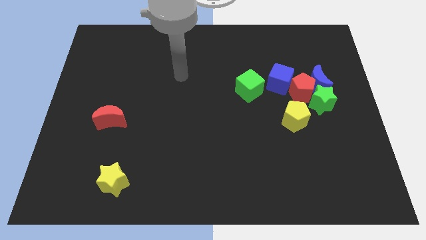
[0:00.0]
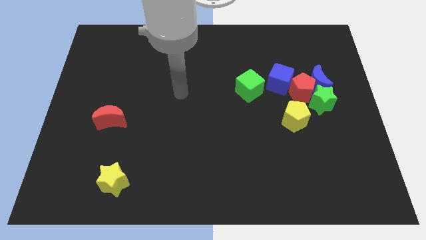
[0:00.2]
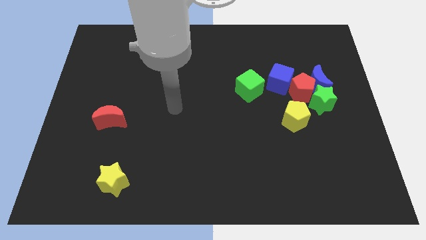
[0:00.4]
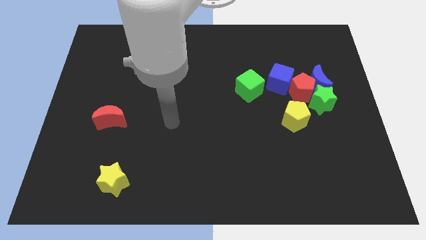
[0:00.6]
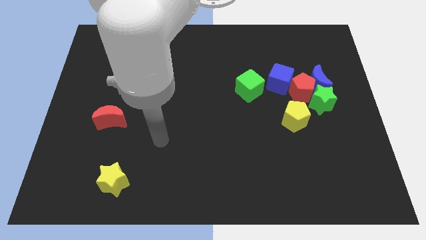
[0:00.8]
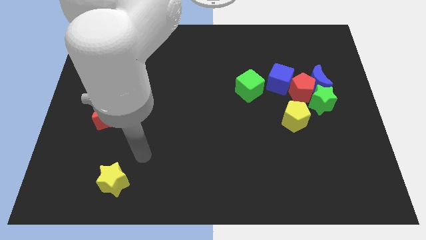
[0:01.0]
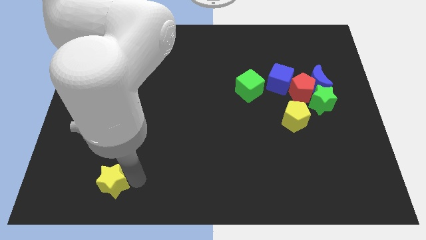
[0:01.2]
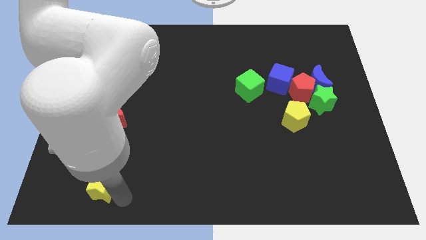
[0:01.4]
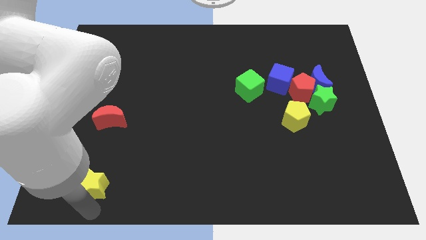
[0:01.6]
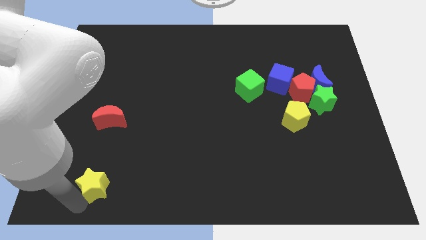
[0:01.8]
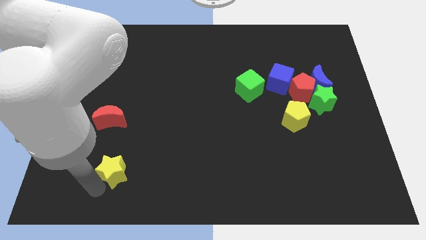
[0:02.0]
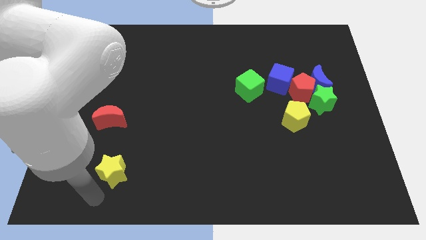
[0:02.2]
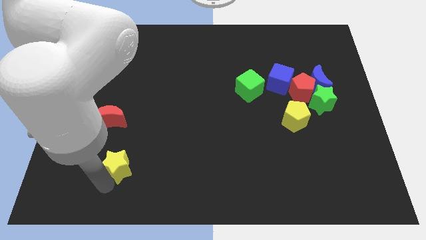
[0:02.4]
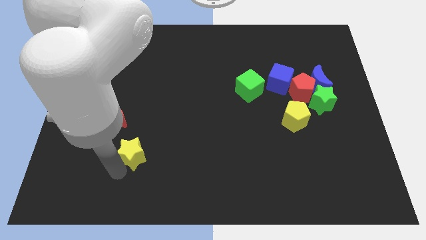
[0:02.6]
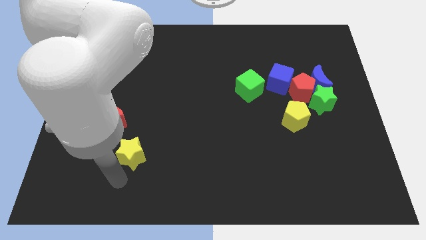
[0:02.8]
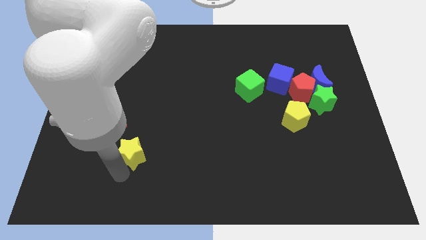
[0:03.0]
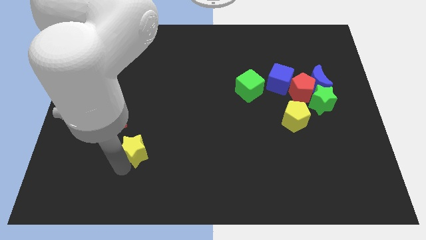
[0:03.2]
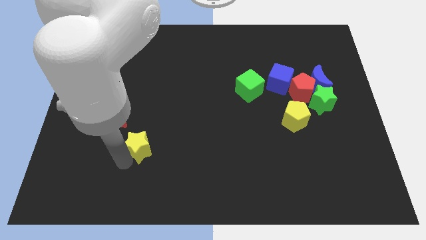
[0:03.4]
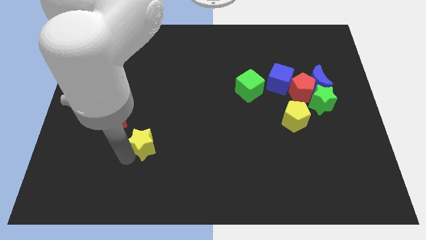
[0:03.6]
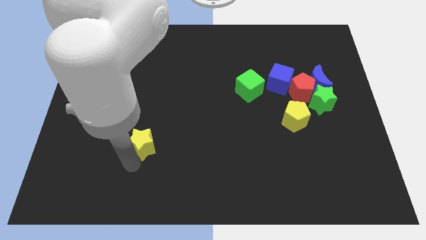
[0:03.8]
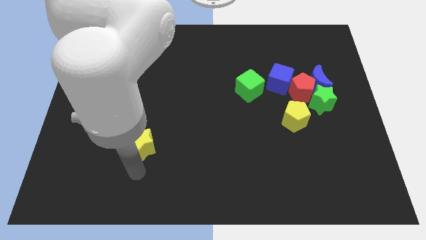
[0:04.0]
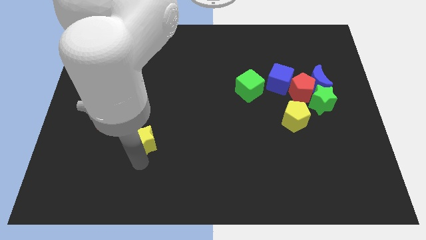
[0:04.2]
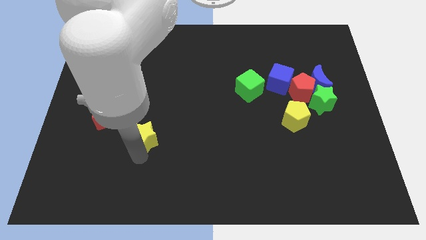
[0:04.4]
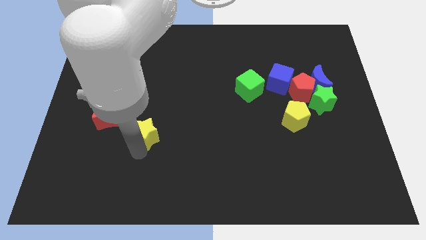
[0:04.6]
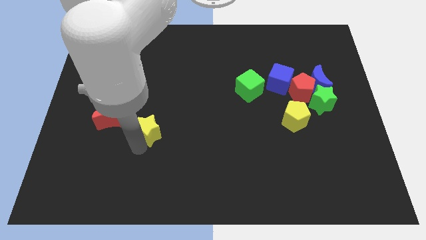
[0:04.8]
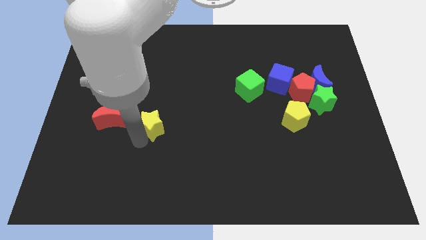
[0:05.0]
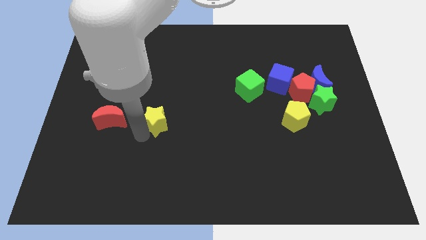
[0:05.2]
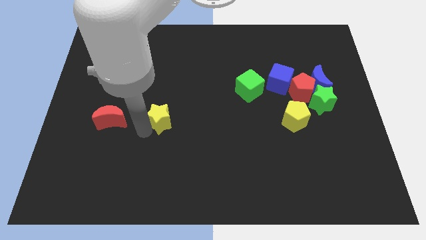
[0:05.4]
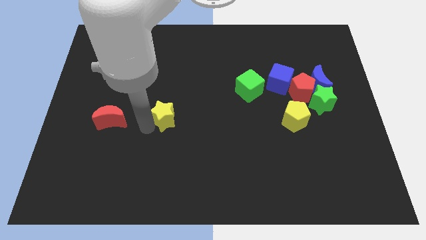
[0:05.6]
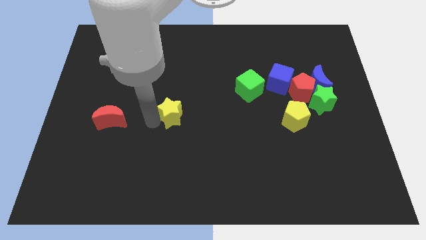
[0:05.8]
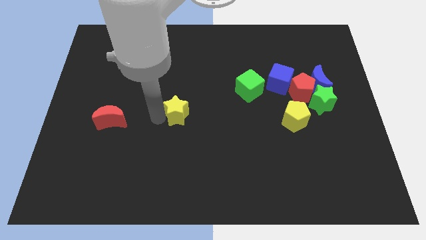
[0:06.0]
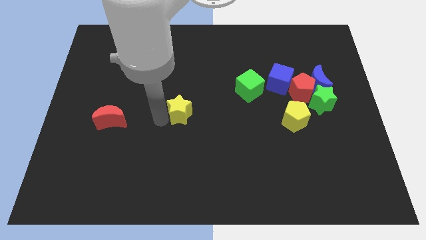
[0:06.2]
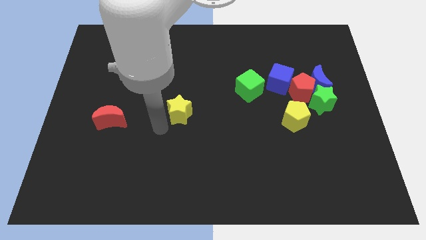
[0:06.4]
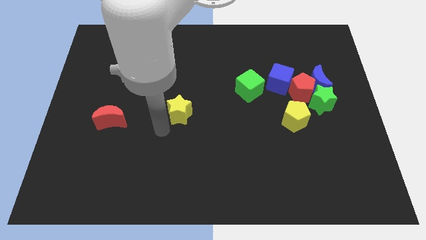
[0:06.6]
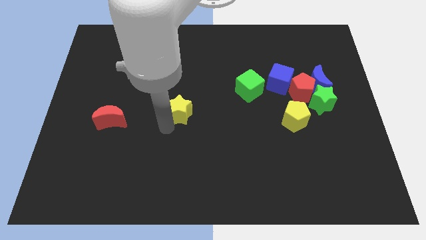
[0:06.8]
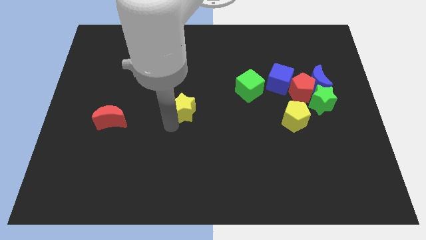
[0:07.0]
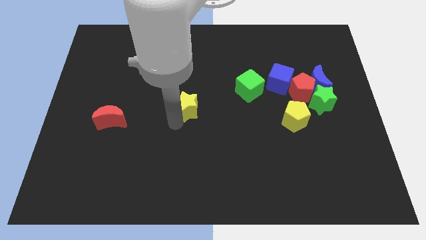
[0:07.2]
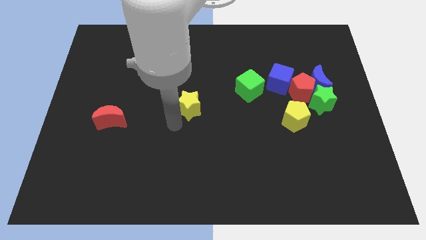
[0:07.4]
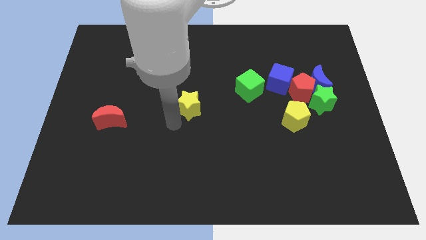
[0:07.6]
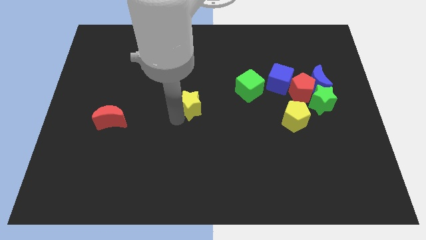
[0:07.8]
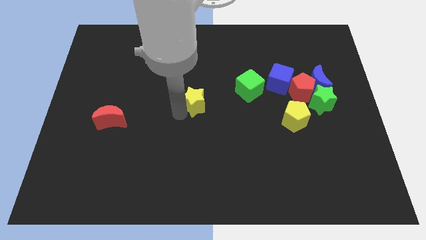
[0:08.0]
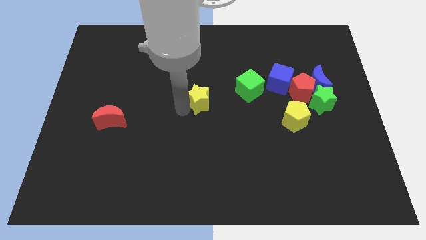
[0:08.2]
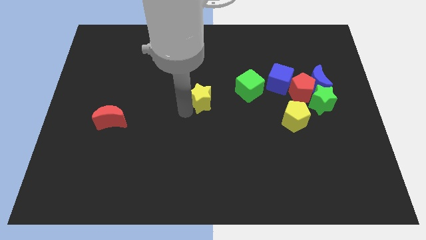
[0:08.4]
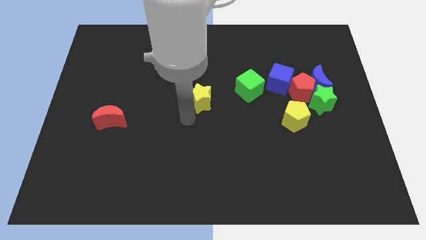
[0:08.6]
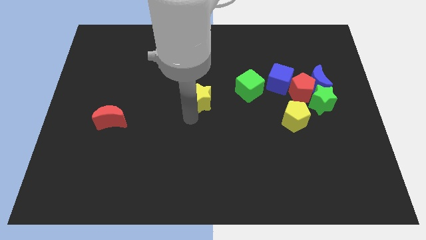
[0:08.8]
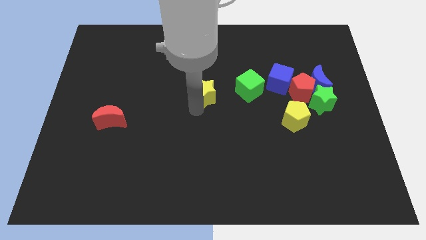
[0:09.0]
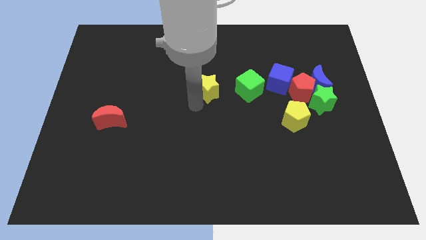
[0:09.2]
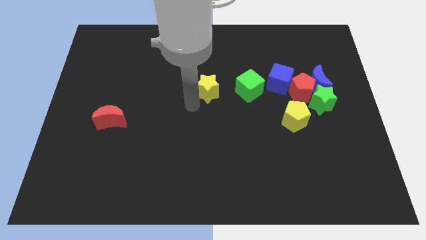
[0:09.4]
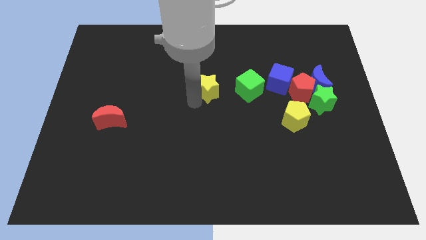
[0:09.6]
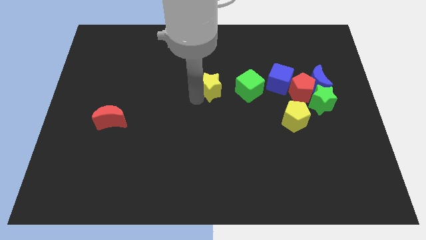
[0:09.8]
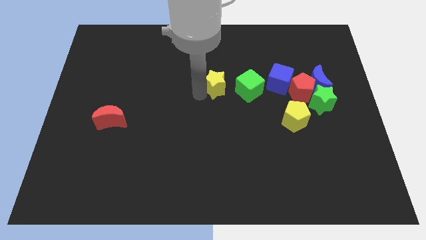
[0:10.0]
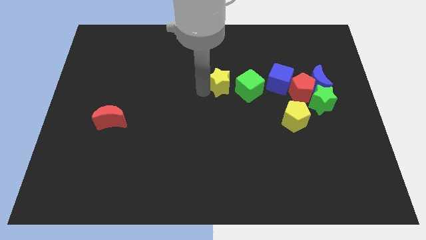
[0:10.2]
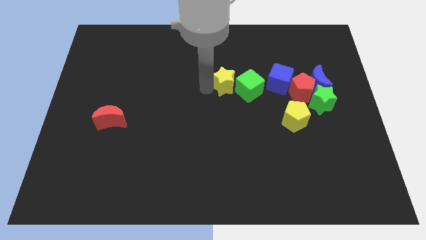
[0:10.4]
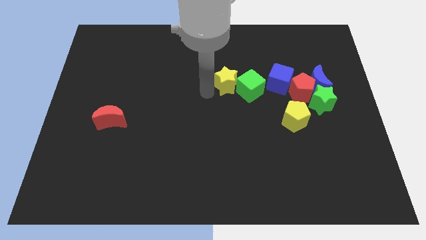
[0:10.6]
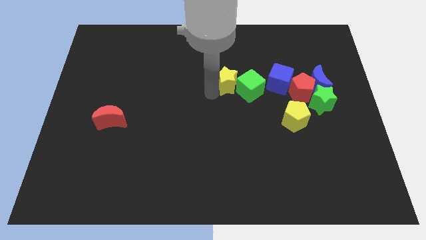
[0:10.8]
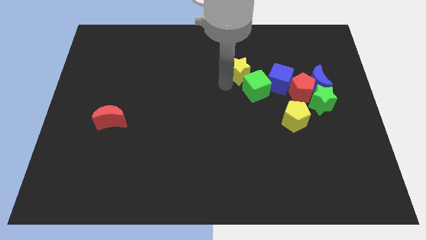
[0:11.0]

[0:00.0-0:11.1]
slide the yellow star to the top left side of the blue cube

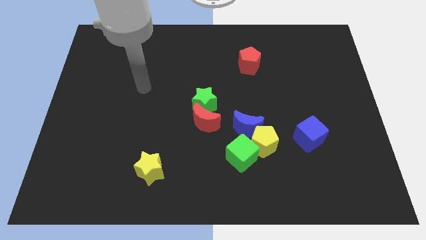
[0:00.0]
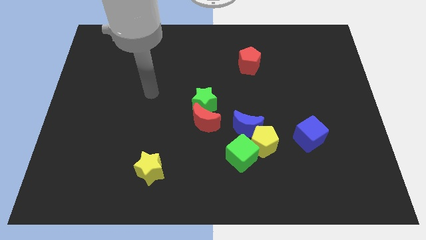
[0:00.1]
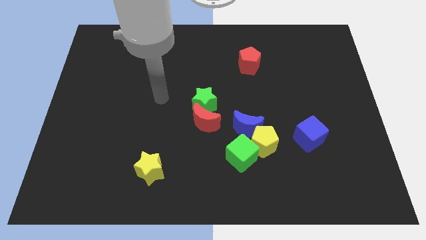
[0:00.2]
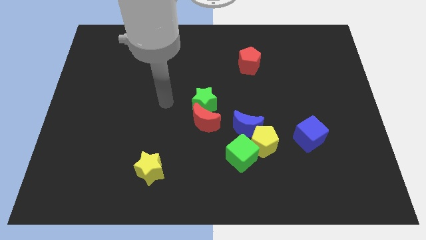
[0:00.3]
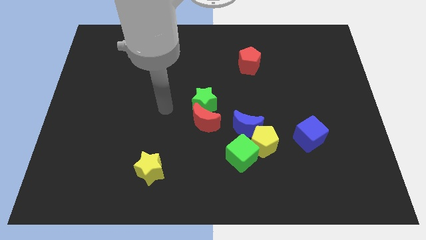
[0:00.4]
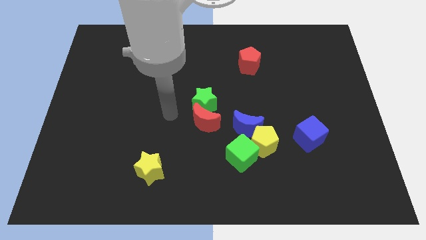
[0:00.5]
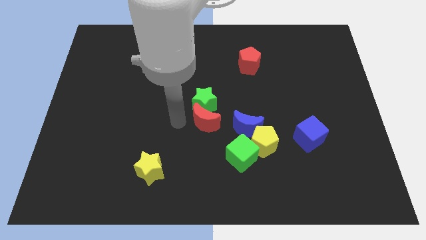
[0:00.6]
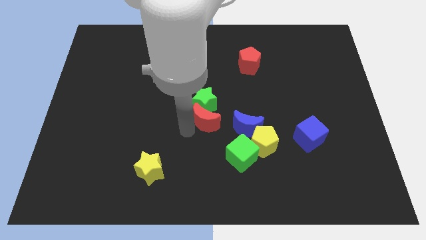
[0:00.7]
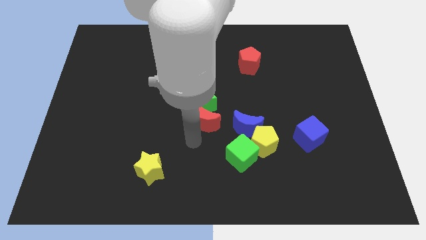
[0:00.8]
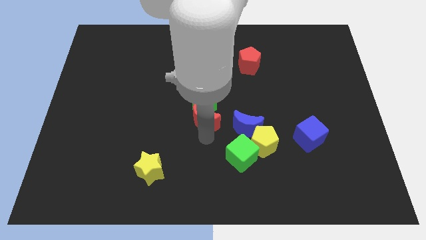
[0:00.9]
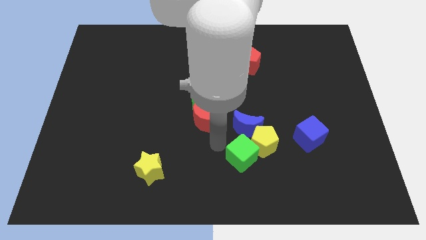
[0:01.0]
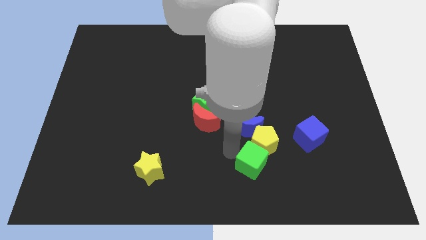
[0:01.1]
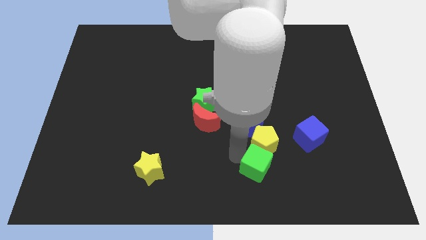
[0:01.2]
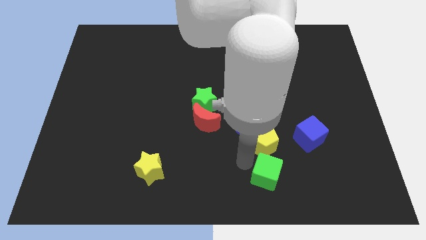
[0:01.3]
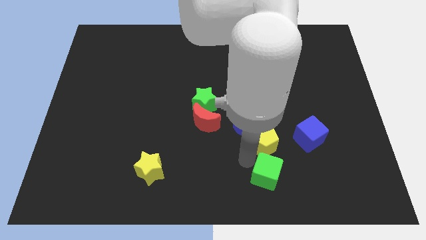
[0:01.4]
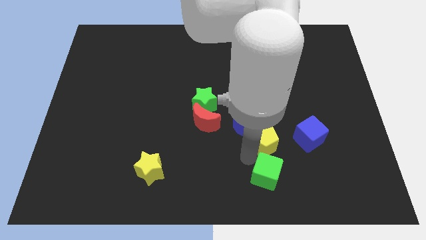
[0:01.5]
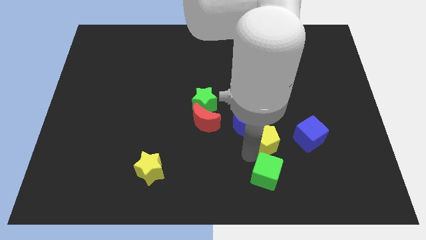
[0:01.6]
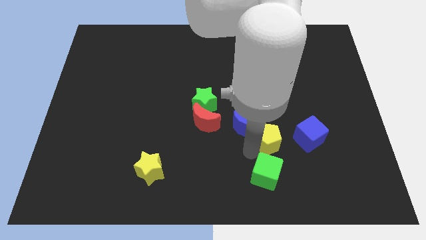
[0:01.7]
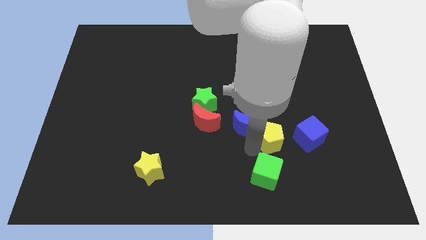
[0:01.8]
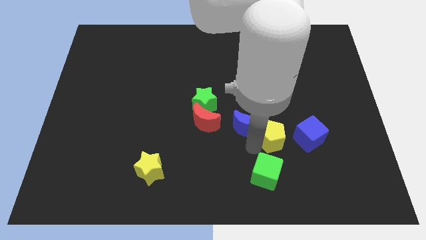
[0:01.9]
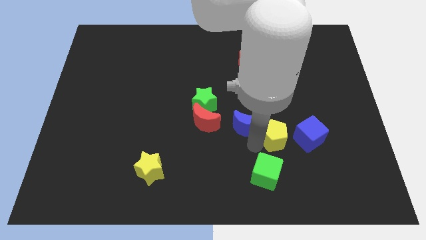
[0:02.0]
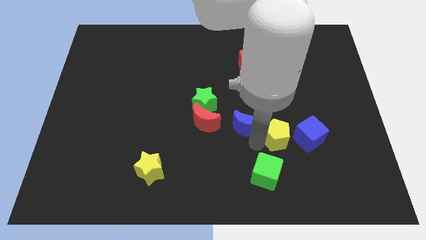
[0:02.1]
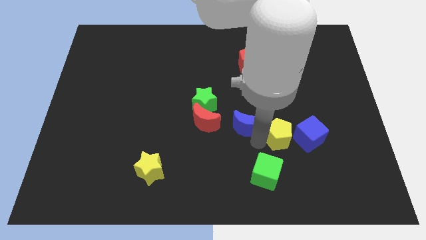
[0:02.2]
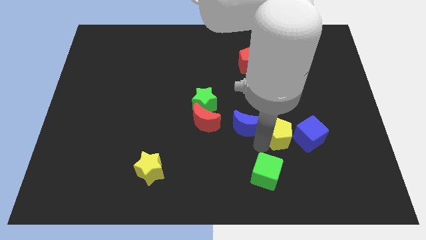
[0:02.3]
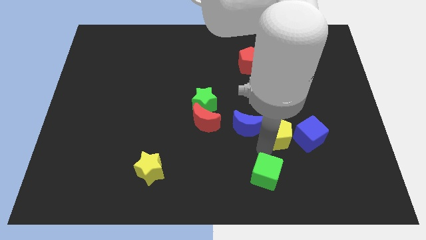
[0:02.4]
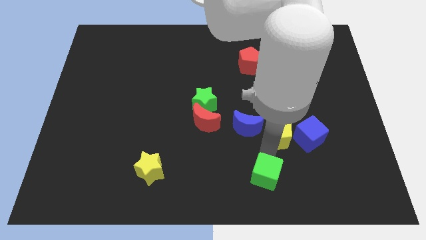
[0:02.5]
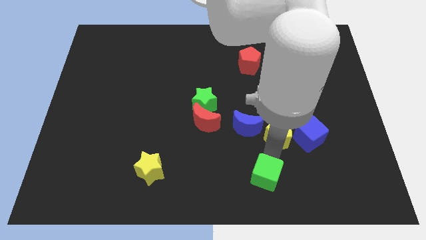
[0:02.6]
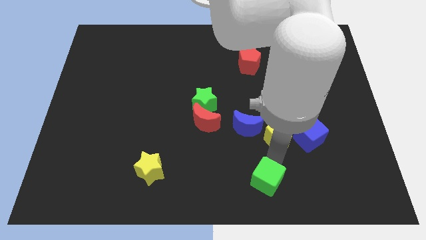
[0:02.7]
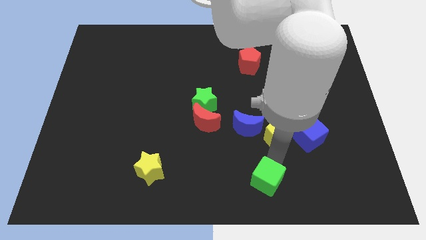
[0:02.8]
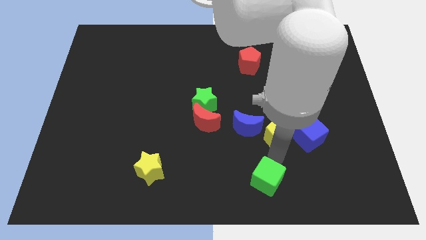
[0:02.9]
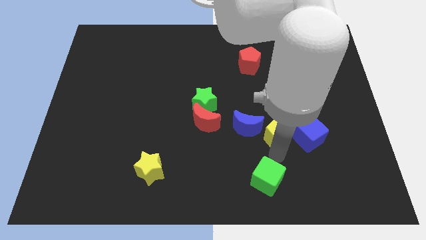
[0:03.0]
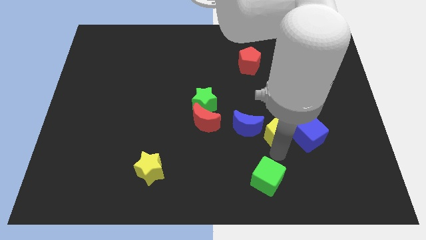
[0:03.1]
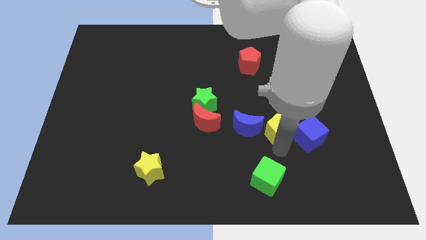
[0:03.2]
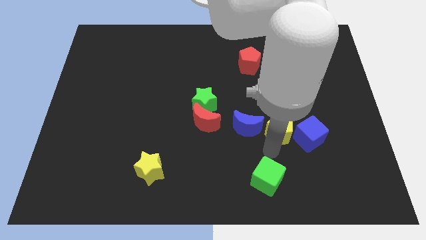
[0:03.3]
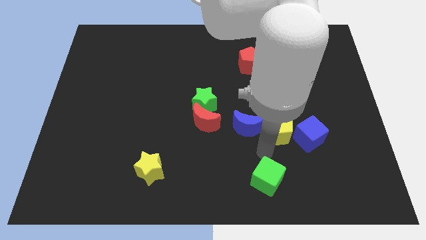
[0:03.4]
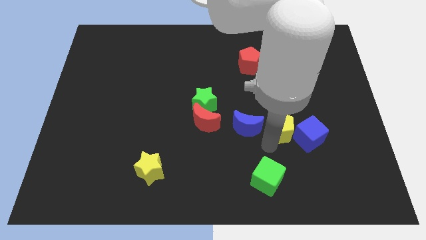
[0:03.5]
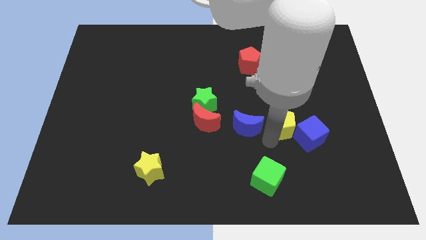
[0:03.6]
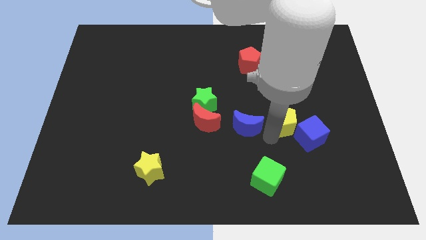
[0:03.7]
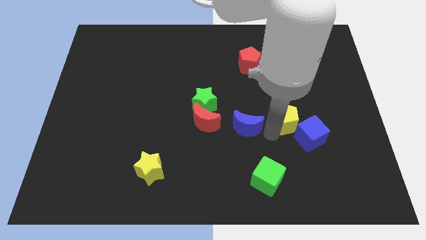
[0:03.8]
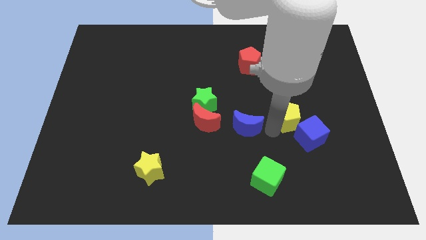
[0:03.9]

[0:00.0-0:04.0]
slide the yellow pentagon to the top side of the blue cube
